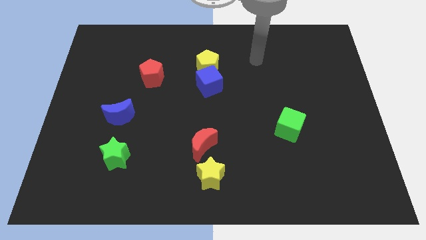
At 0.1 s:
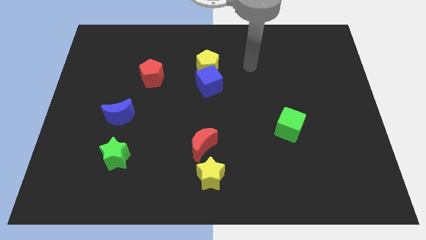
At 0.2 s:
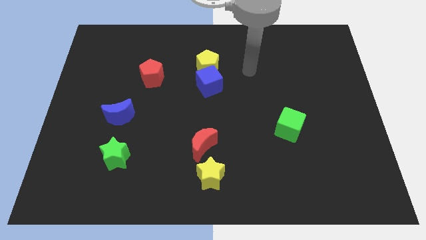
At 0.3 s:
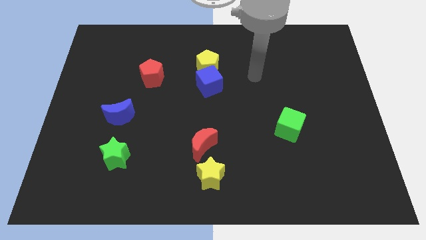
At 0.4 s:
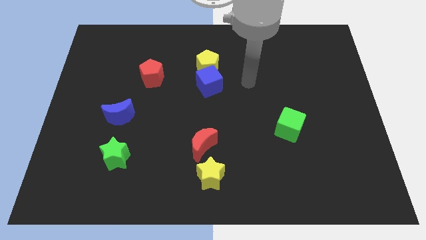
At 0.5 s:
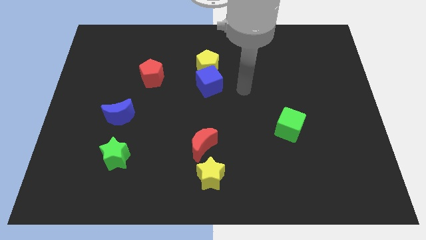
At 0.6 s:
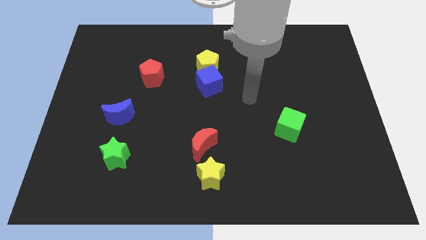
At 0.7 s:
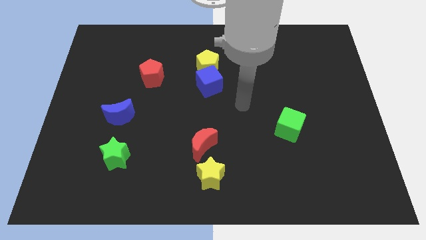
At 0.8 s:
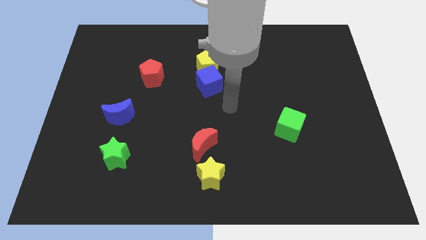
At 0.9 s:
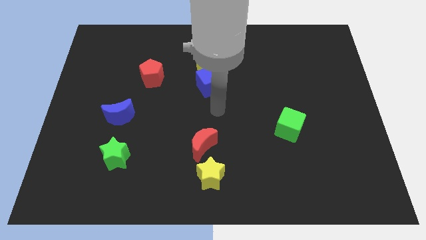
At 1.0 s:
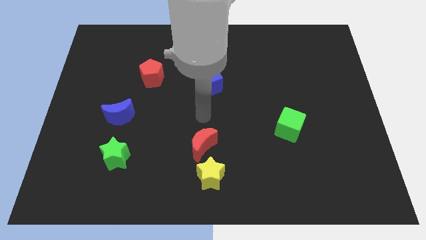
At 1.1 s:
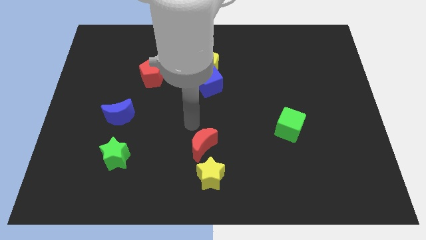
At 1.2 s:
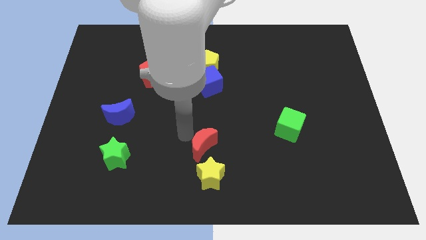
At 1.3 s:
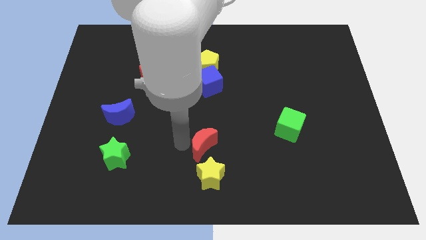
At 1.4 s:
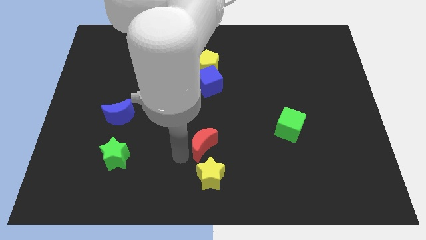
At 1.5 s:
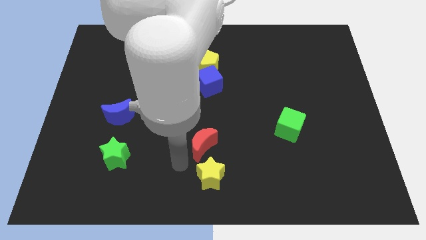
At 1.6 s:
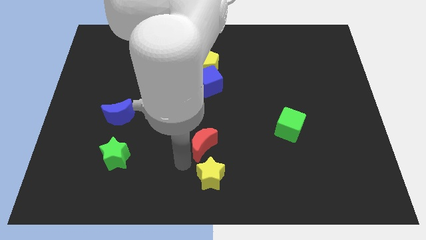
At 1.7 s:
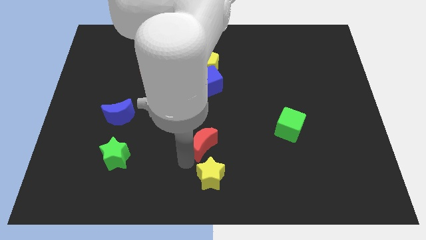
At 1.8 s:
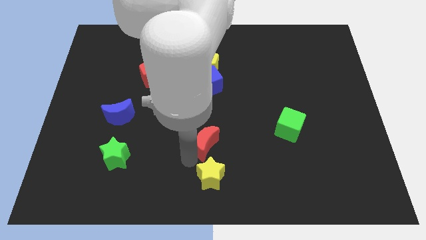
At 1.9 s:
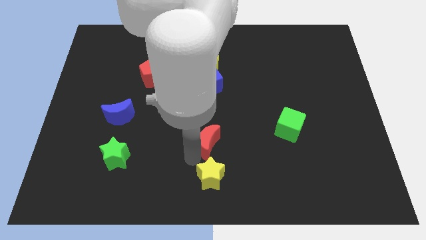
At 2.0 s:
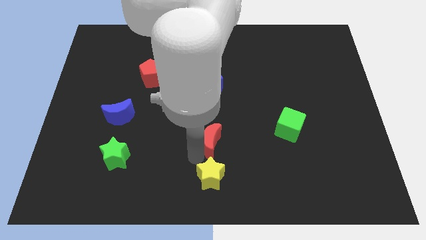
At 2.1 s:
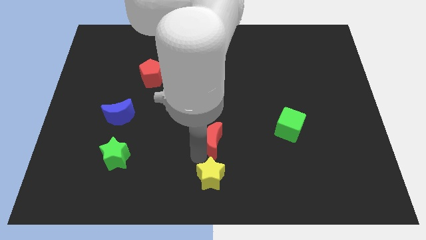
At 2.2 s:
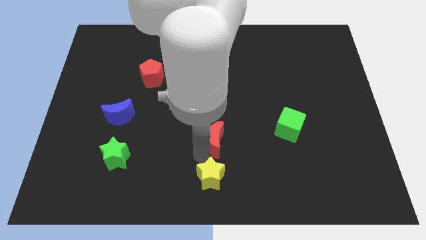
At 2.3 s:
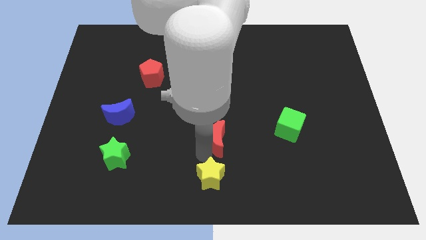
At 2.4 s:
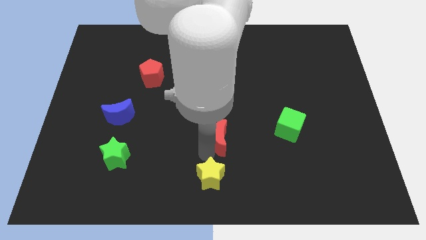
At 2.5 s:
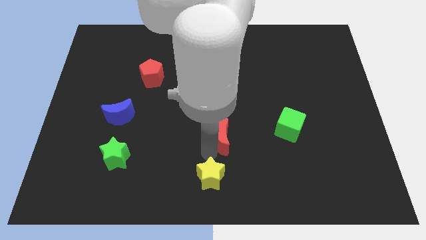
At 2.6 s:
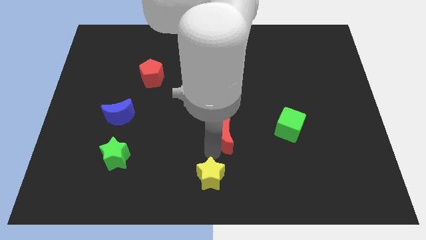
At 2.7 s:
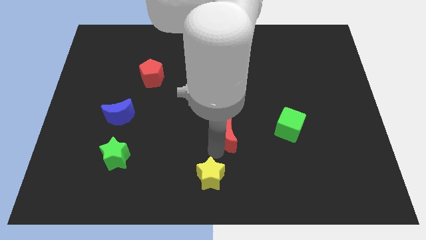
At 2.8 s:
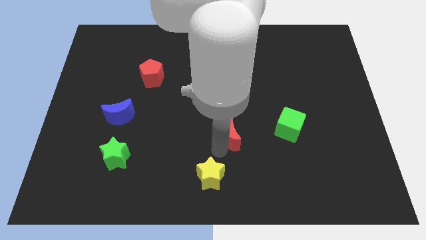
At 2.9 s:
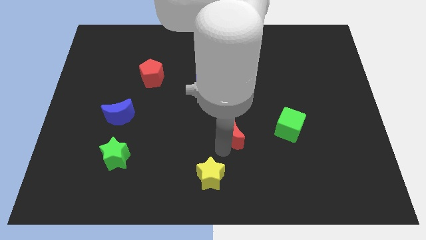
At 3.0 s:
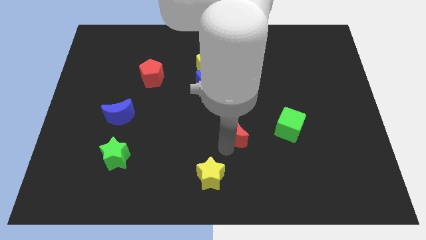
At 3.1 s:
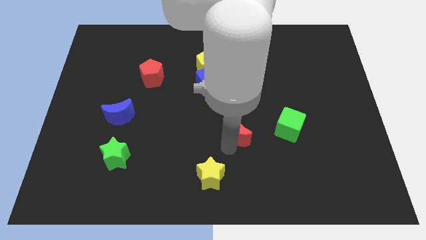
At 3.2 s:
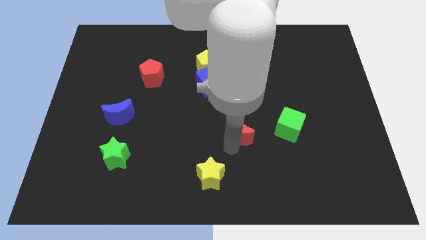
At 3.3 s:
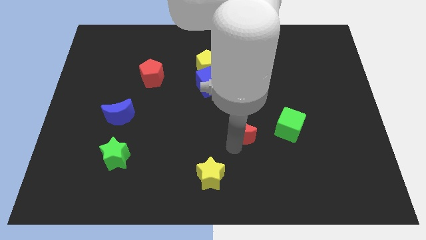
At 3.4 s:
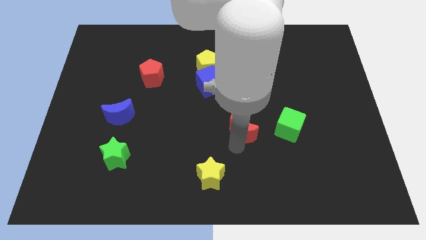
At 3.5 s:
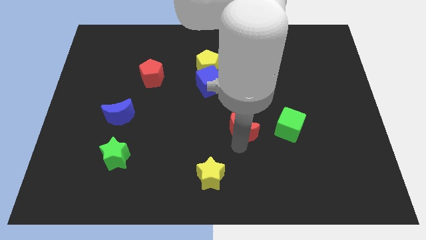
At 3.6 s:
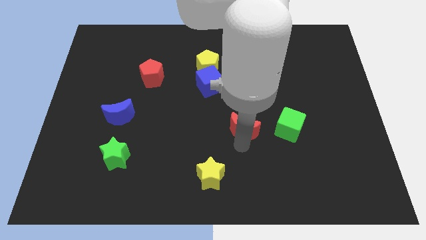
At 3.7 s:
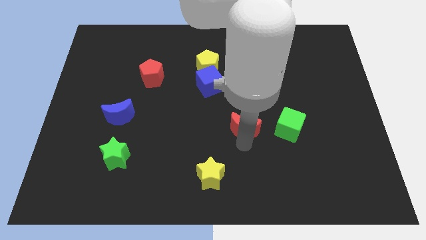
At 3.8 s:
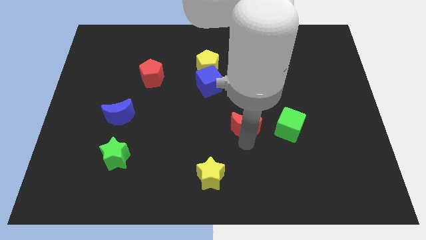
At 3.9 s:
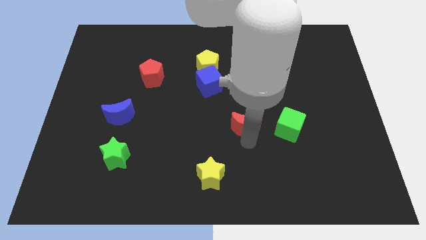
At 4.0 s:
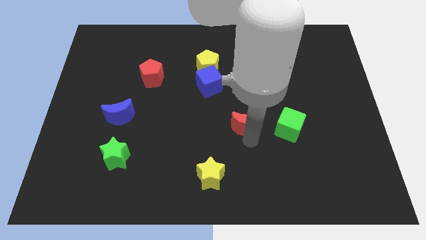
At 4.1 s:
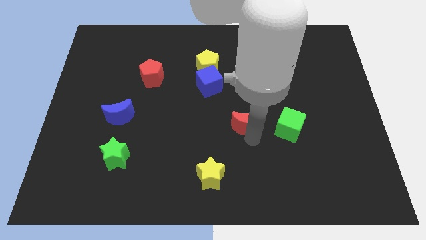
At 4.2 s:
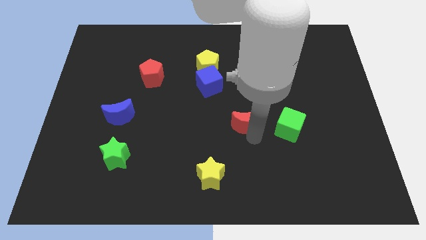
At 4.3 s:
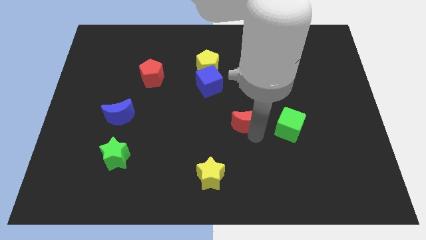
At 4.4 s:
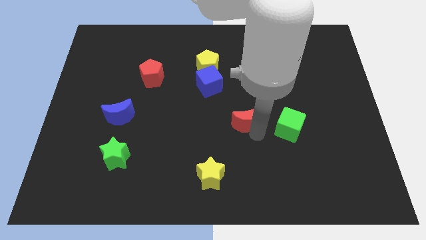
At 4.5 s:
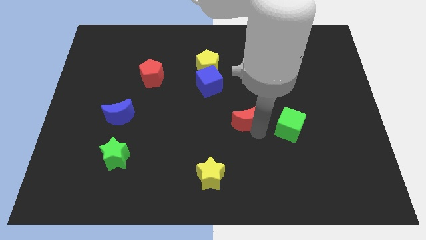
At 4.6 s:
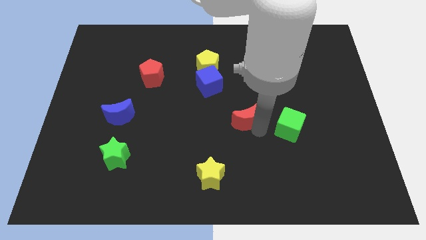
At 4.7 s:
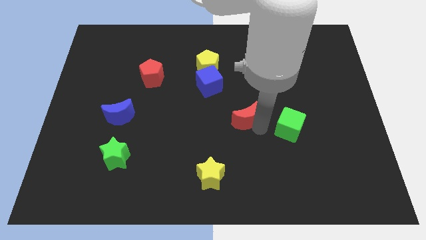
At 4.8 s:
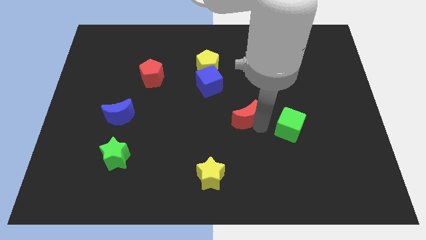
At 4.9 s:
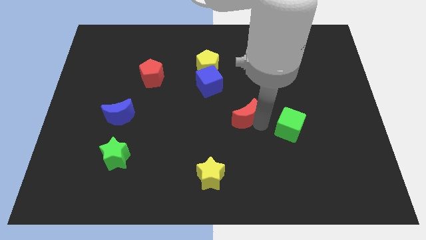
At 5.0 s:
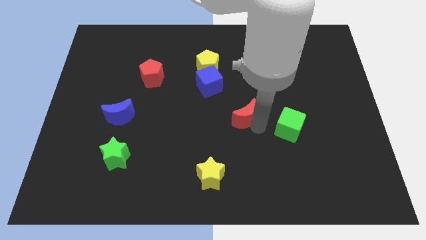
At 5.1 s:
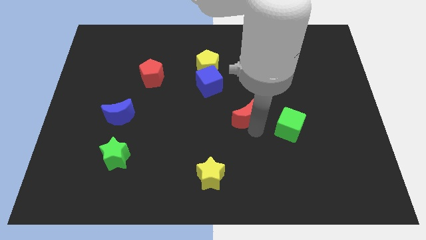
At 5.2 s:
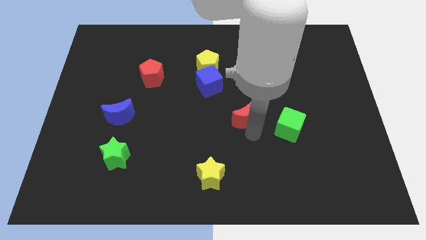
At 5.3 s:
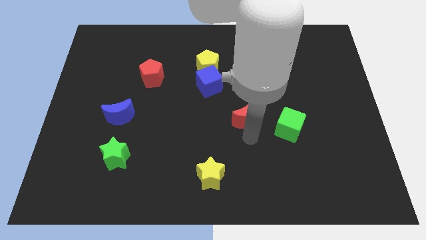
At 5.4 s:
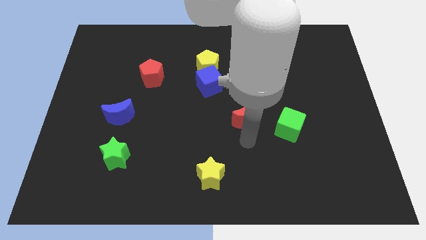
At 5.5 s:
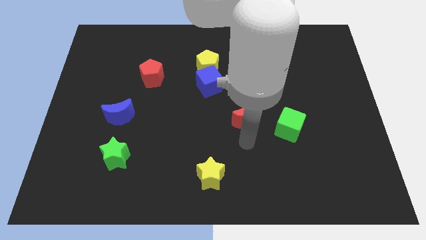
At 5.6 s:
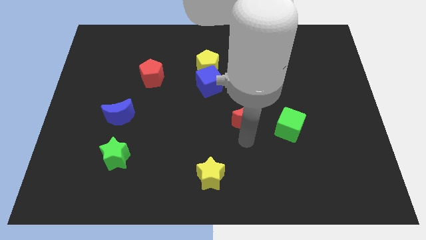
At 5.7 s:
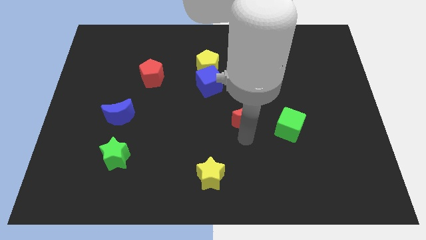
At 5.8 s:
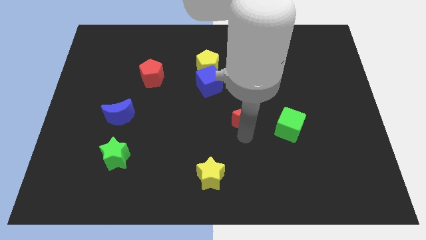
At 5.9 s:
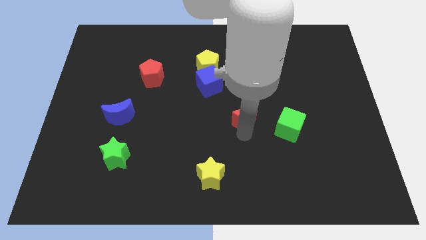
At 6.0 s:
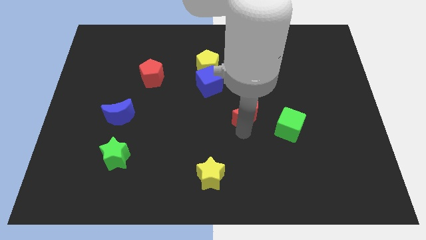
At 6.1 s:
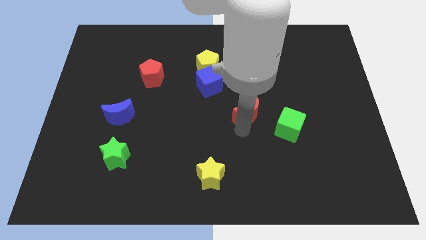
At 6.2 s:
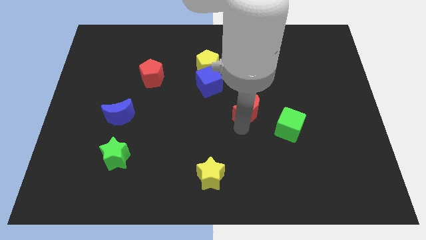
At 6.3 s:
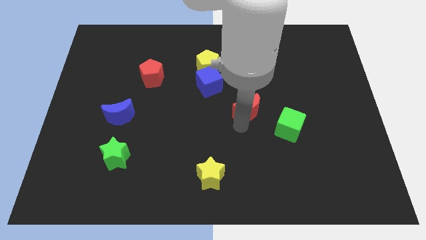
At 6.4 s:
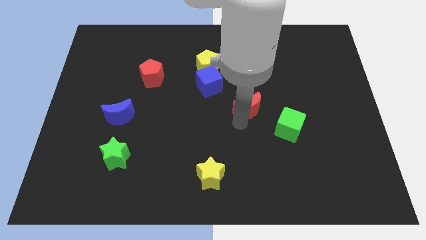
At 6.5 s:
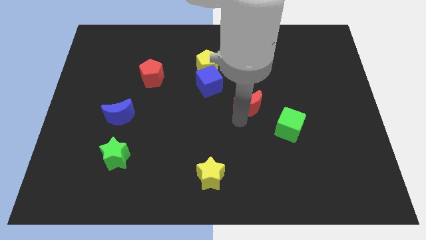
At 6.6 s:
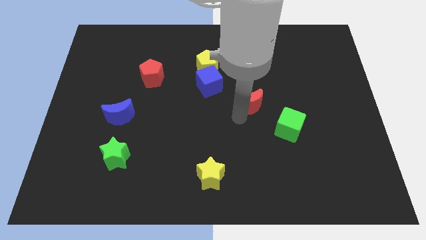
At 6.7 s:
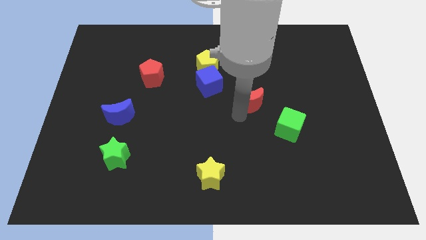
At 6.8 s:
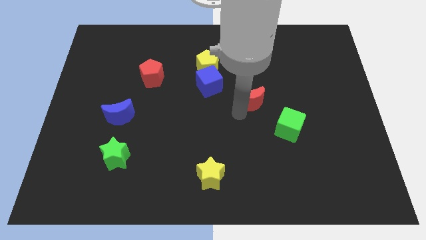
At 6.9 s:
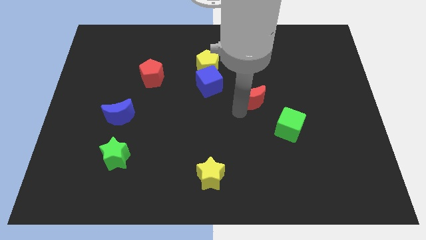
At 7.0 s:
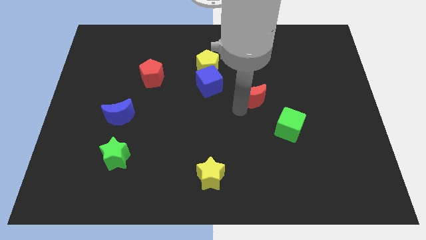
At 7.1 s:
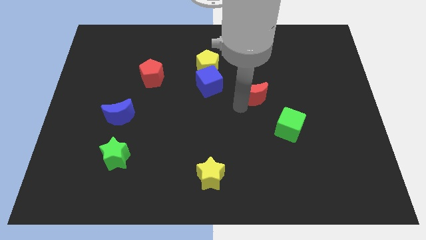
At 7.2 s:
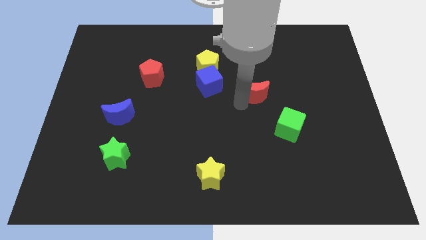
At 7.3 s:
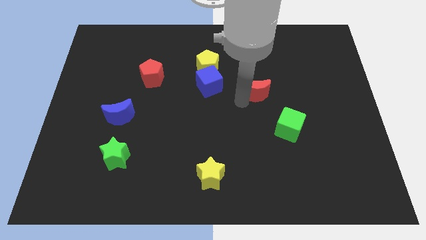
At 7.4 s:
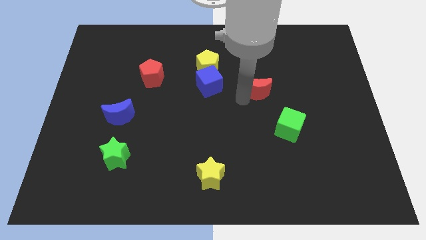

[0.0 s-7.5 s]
push the red moon diagonally upwards and to the right

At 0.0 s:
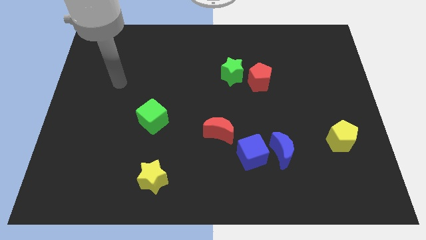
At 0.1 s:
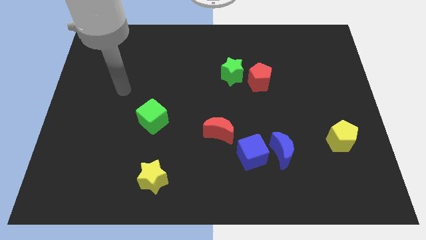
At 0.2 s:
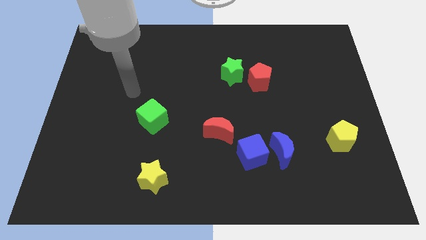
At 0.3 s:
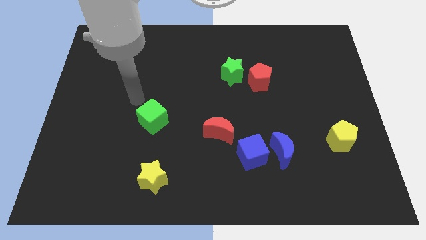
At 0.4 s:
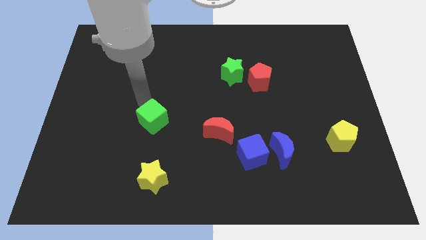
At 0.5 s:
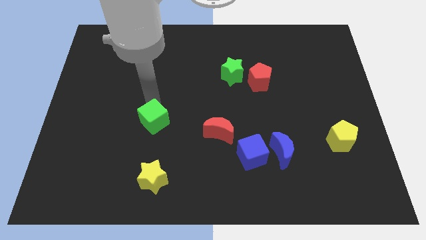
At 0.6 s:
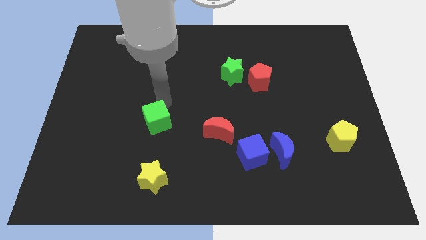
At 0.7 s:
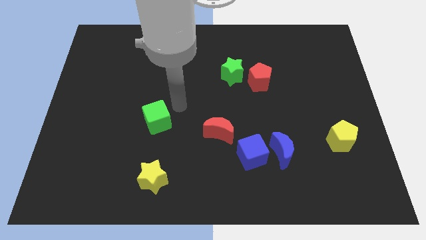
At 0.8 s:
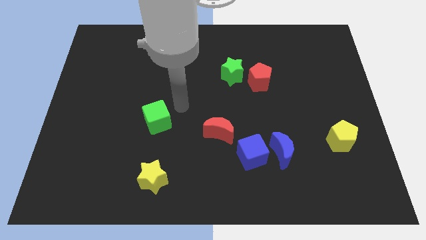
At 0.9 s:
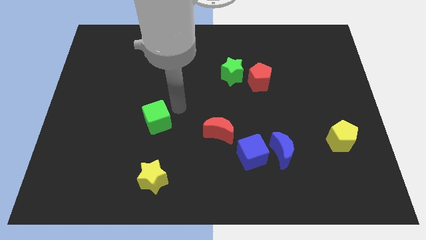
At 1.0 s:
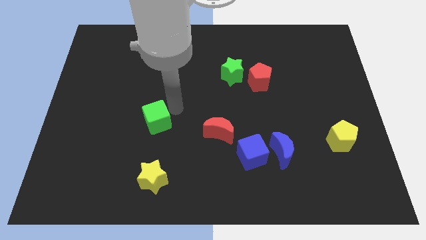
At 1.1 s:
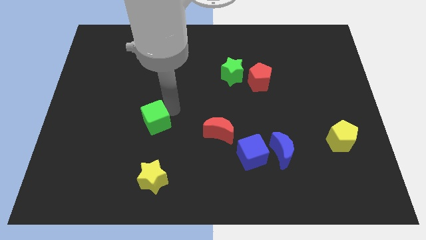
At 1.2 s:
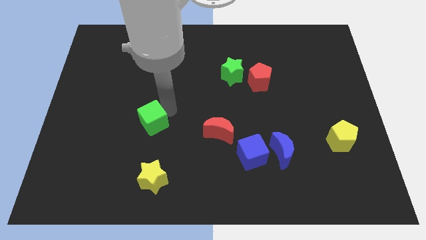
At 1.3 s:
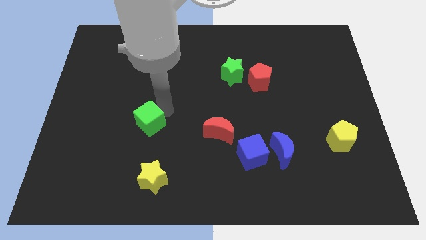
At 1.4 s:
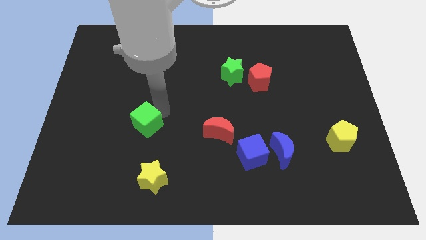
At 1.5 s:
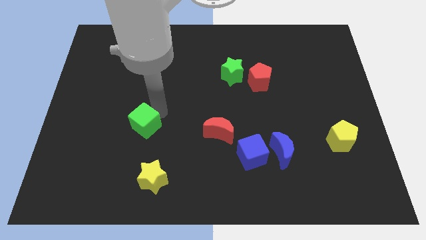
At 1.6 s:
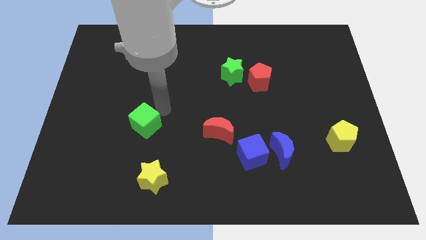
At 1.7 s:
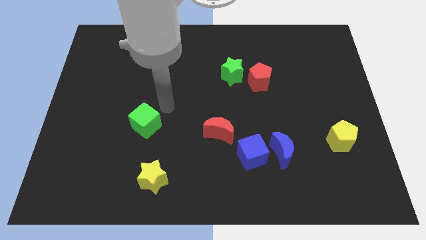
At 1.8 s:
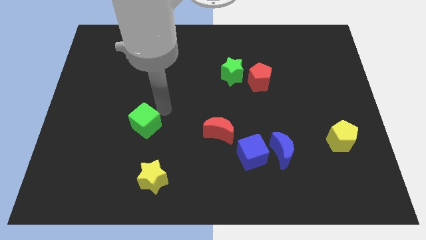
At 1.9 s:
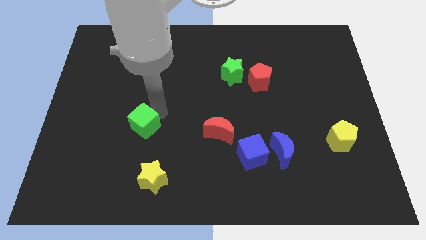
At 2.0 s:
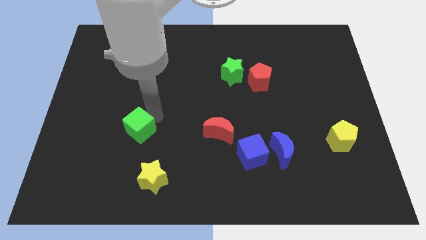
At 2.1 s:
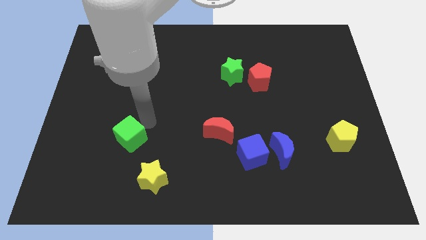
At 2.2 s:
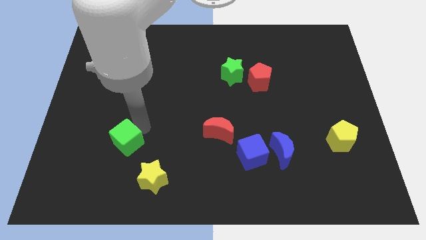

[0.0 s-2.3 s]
slightly move the green cube diagonally down and to the left
